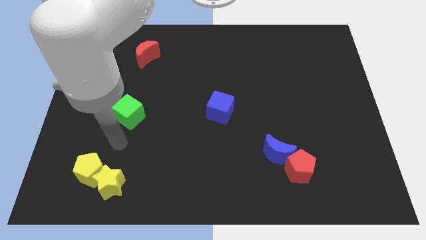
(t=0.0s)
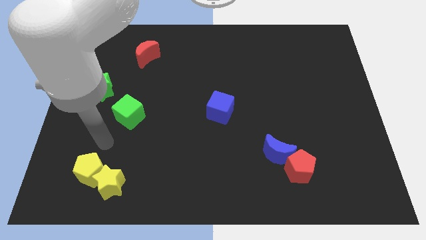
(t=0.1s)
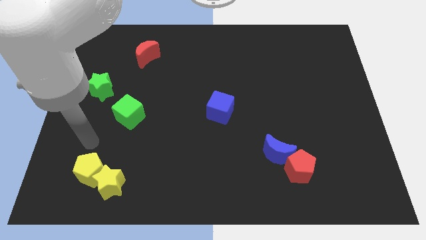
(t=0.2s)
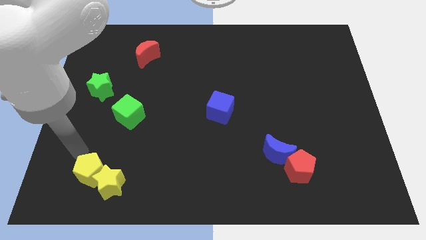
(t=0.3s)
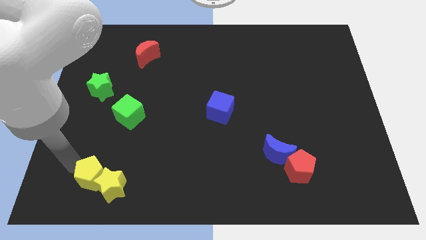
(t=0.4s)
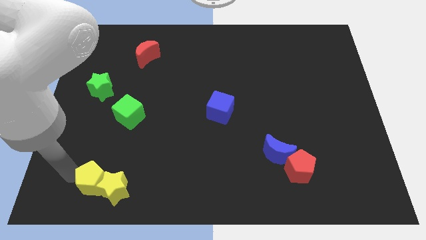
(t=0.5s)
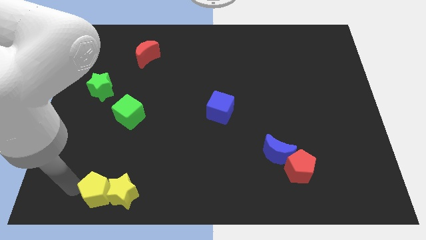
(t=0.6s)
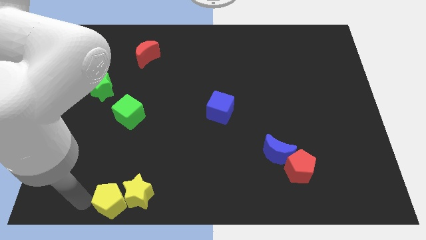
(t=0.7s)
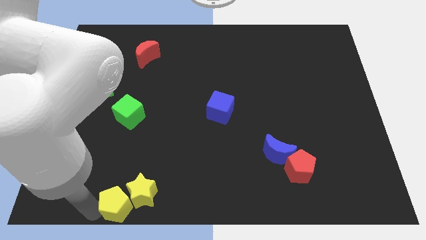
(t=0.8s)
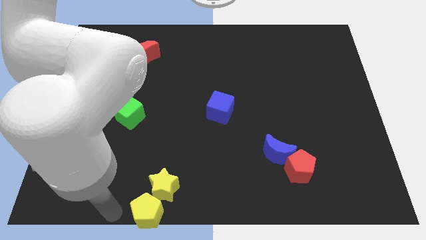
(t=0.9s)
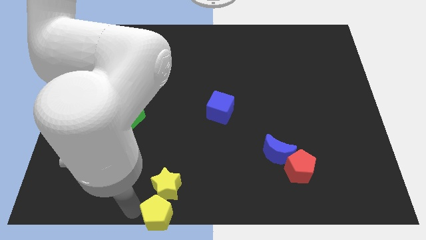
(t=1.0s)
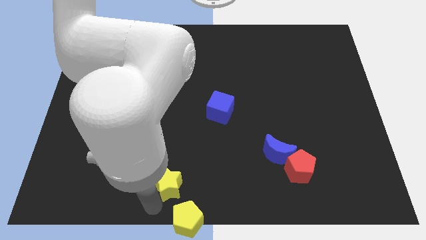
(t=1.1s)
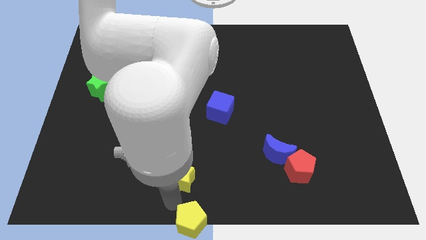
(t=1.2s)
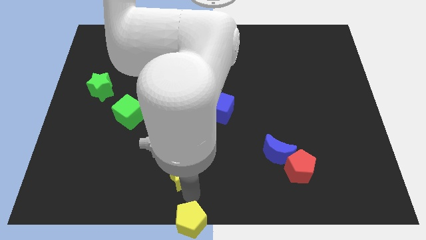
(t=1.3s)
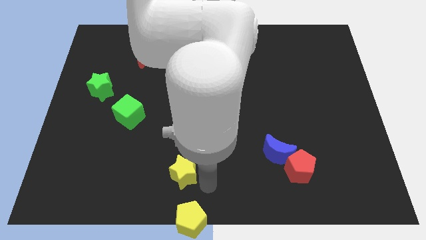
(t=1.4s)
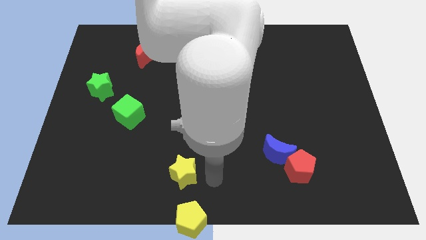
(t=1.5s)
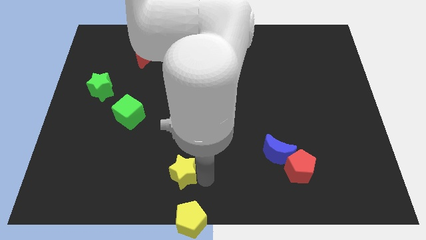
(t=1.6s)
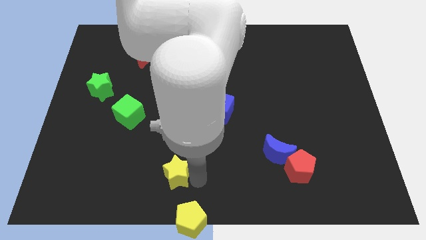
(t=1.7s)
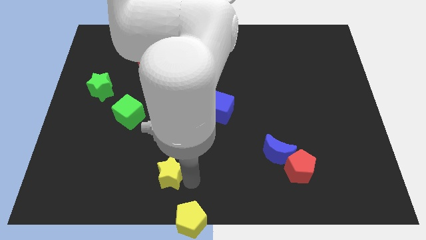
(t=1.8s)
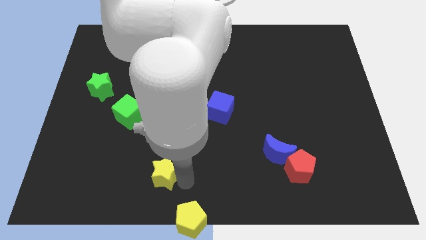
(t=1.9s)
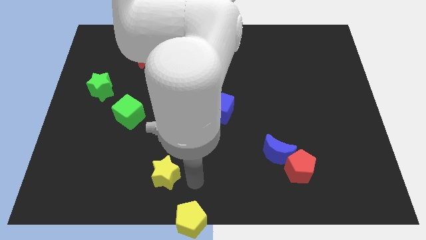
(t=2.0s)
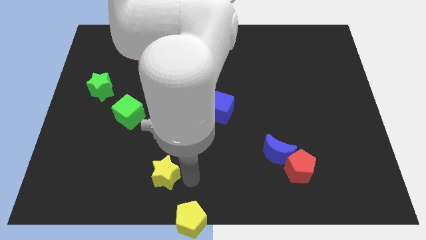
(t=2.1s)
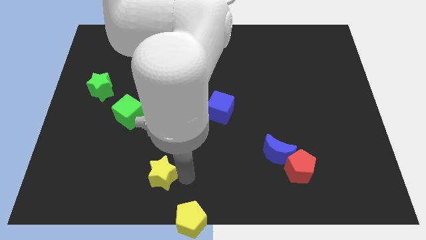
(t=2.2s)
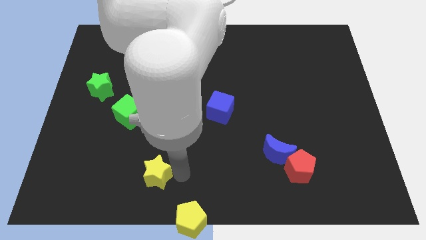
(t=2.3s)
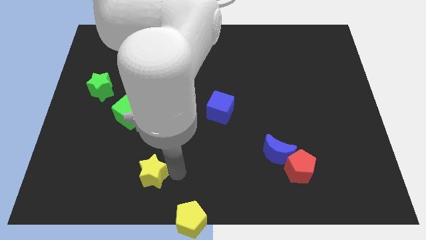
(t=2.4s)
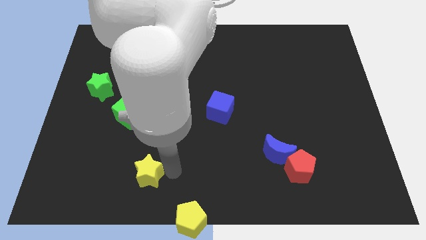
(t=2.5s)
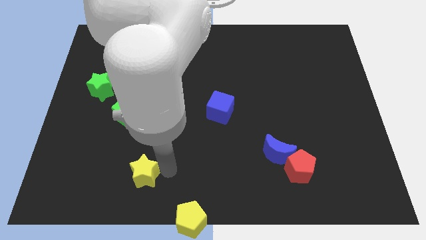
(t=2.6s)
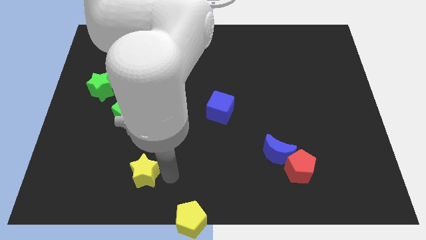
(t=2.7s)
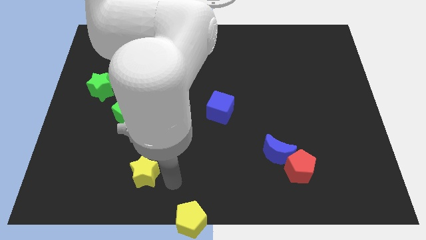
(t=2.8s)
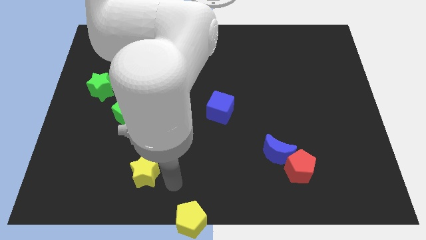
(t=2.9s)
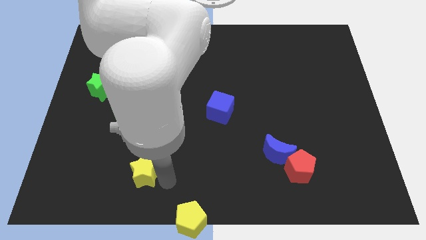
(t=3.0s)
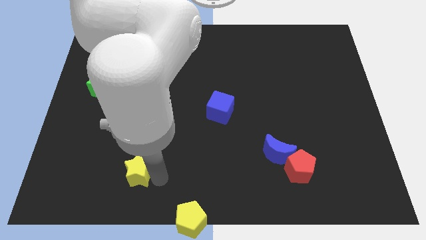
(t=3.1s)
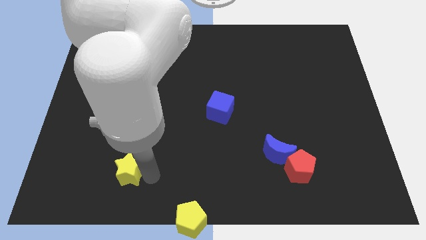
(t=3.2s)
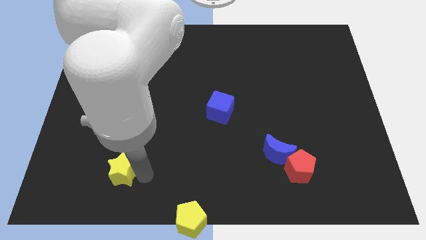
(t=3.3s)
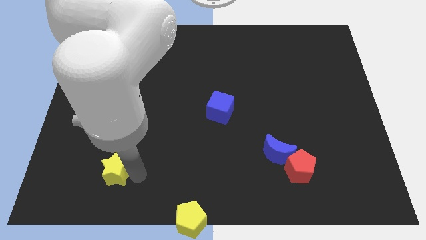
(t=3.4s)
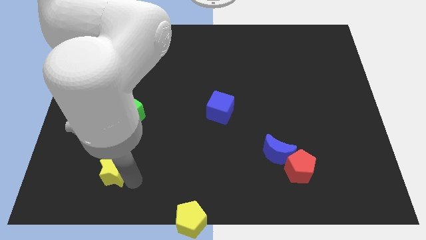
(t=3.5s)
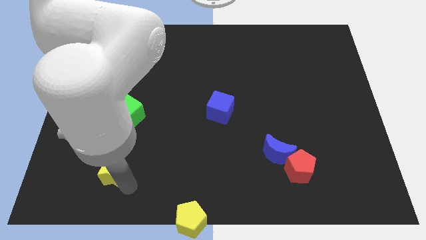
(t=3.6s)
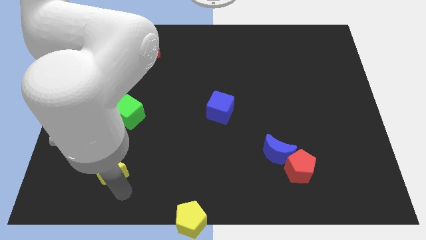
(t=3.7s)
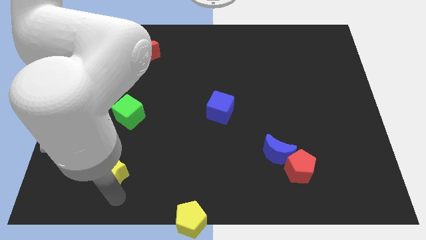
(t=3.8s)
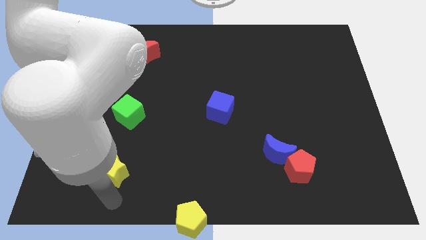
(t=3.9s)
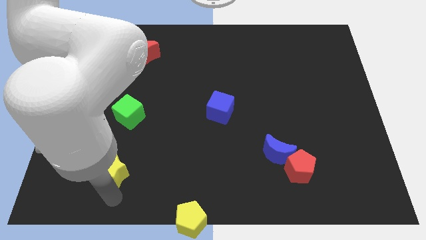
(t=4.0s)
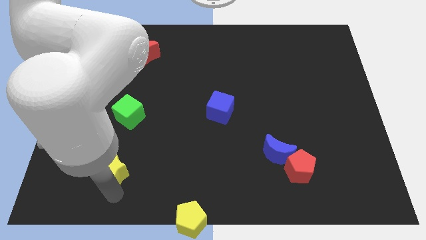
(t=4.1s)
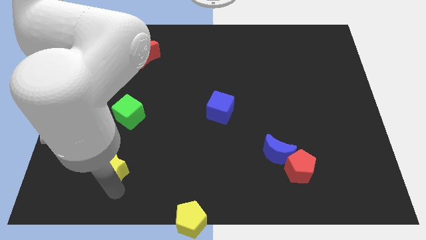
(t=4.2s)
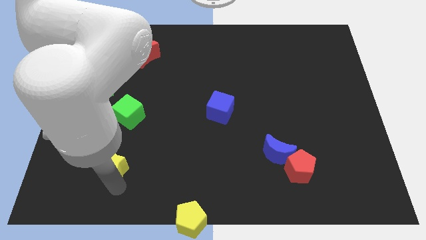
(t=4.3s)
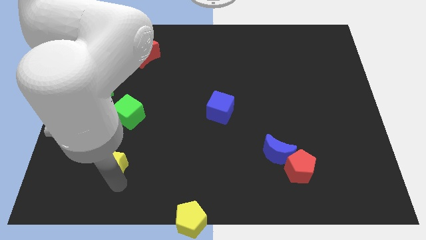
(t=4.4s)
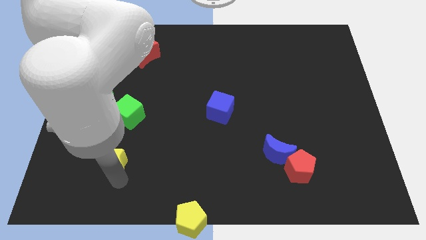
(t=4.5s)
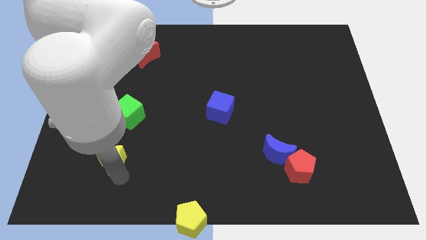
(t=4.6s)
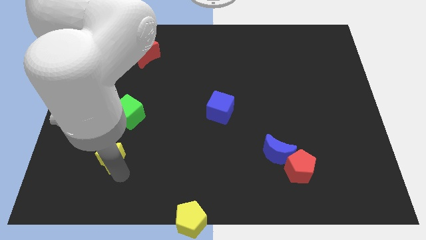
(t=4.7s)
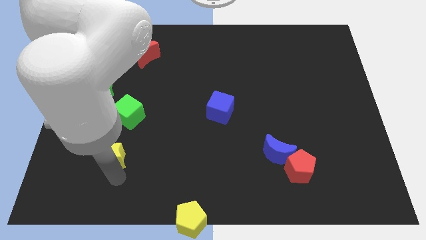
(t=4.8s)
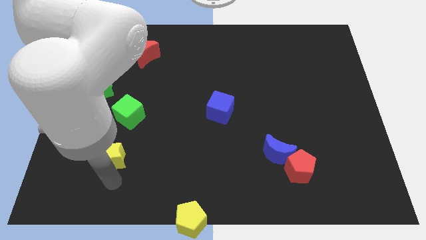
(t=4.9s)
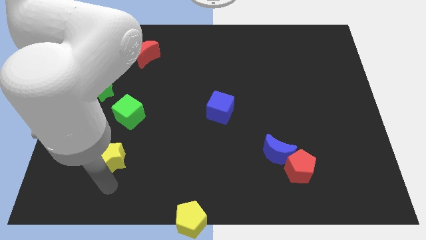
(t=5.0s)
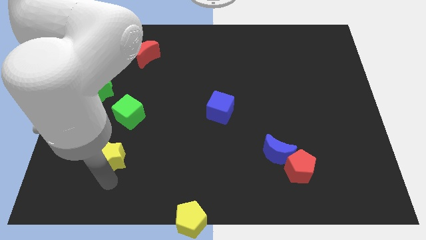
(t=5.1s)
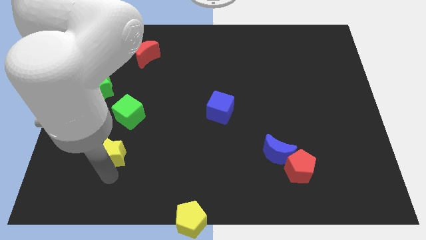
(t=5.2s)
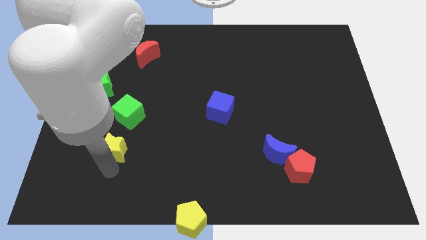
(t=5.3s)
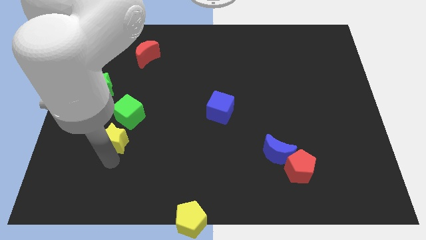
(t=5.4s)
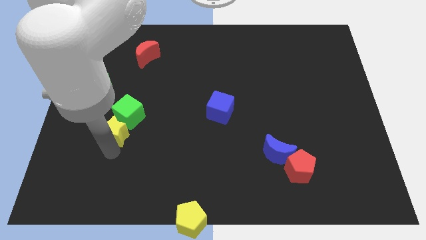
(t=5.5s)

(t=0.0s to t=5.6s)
move the yellow star next to the green cube

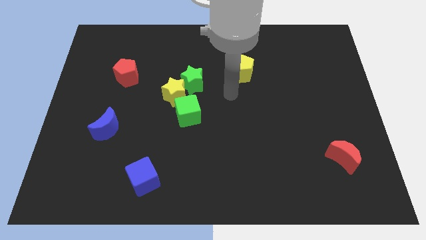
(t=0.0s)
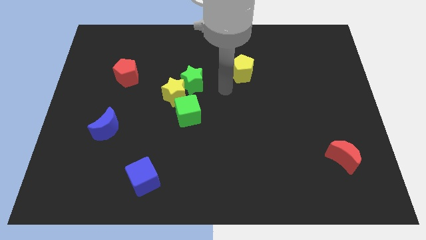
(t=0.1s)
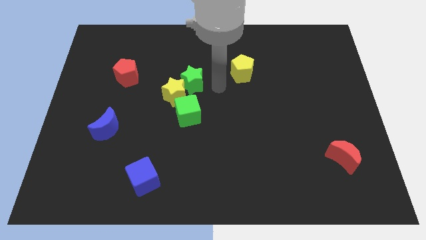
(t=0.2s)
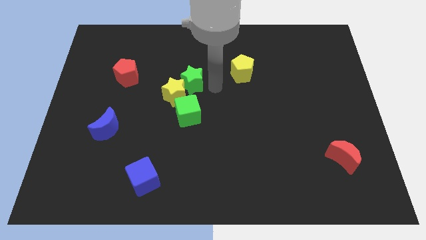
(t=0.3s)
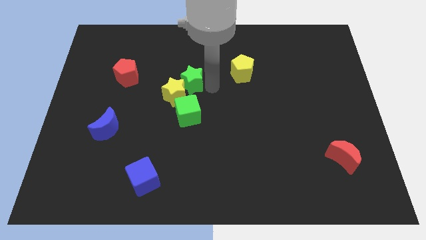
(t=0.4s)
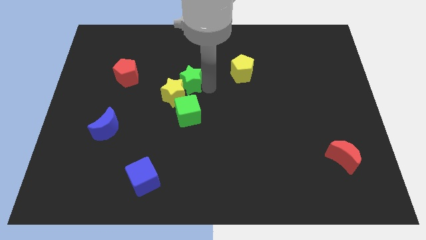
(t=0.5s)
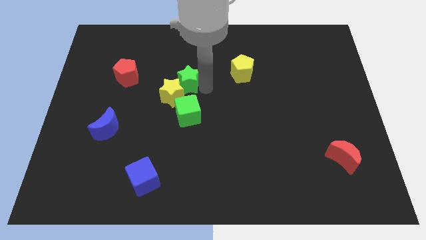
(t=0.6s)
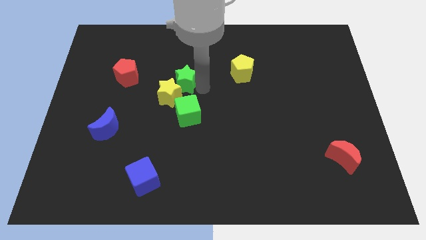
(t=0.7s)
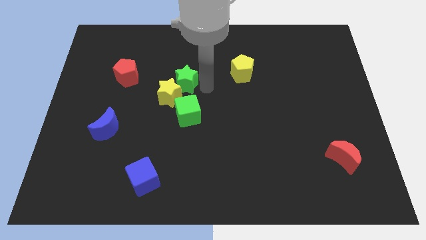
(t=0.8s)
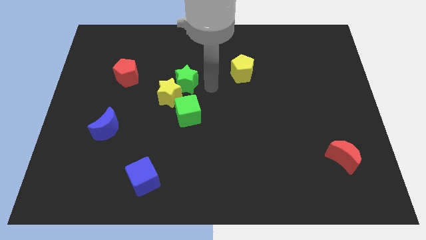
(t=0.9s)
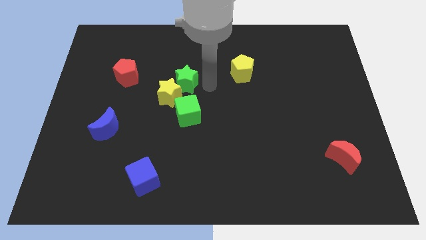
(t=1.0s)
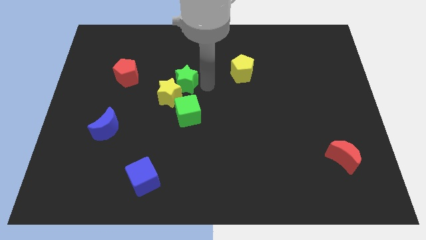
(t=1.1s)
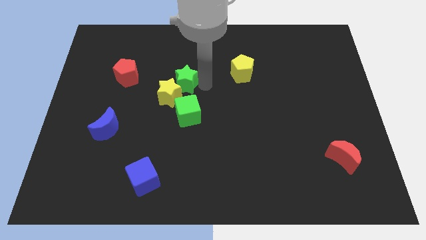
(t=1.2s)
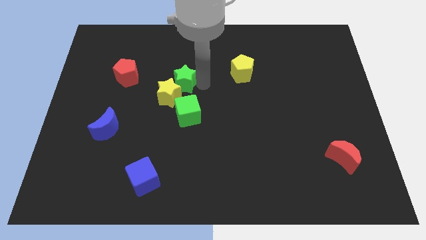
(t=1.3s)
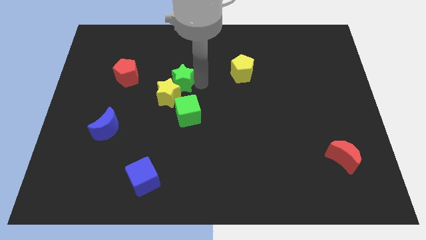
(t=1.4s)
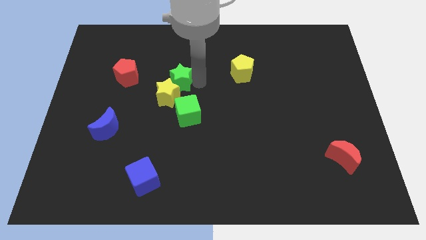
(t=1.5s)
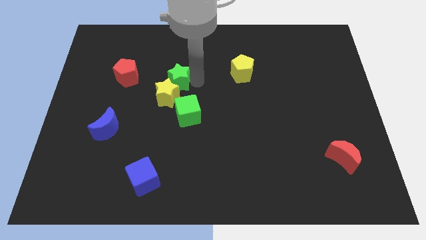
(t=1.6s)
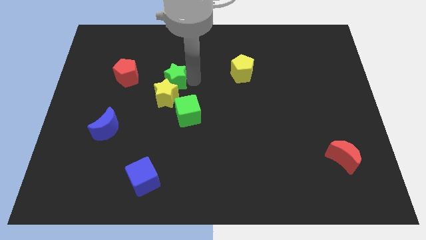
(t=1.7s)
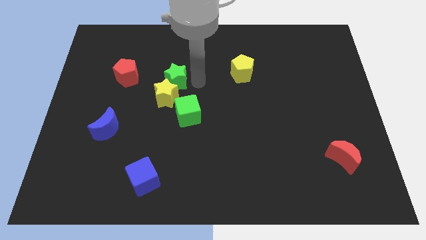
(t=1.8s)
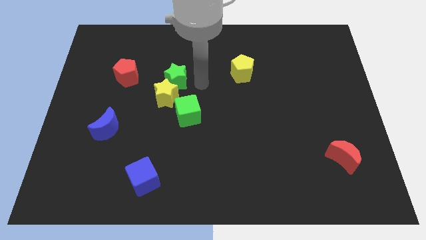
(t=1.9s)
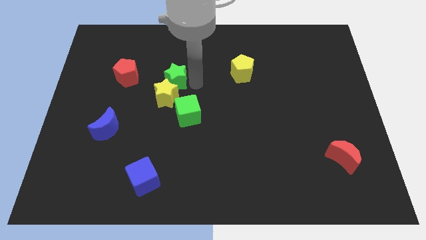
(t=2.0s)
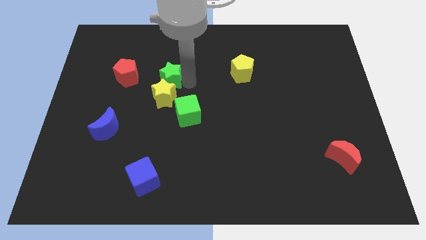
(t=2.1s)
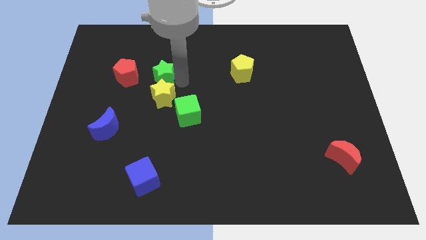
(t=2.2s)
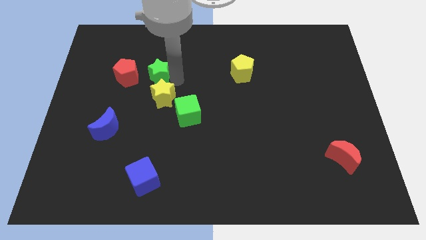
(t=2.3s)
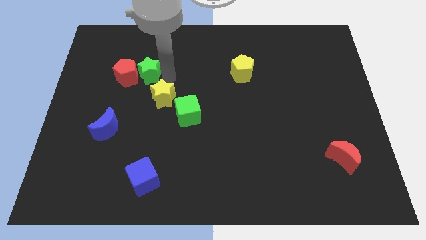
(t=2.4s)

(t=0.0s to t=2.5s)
move the green star close to the red pentagon
